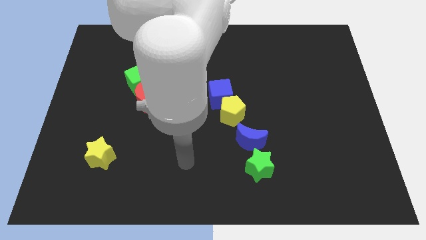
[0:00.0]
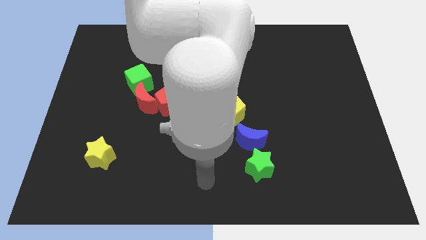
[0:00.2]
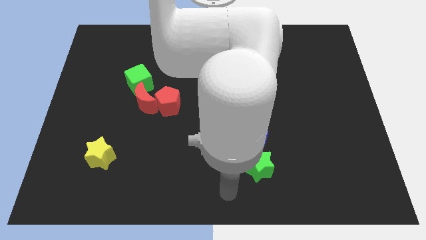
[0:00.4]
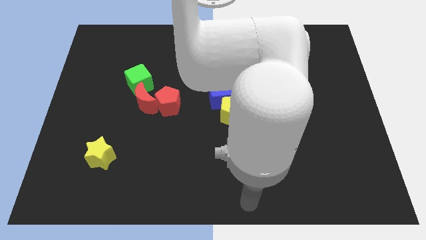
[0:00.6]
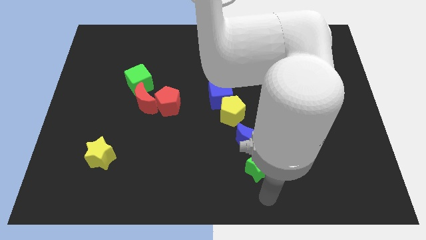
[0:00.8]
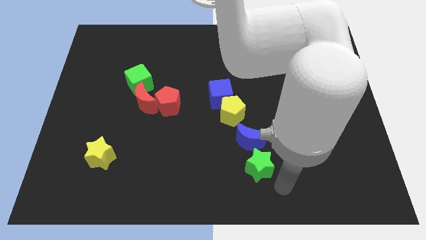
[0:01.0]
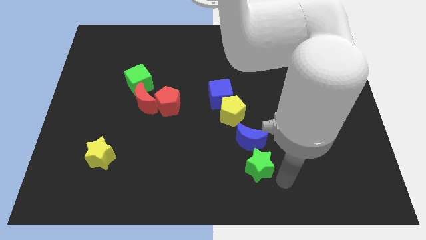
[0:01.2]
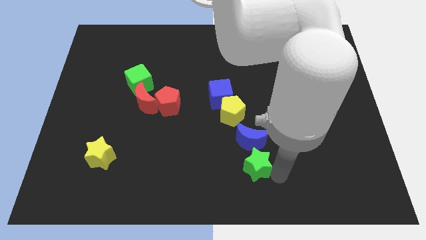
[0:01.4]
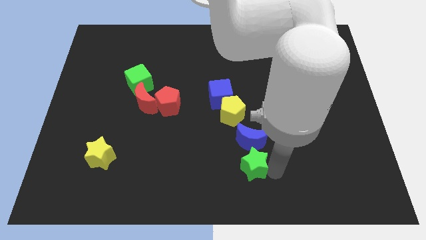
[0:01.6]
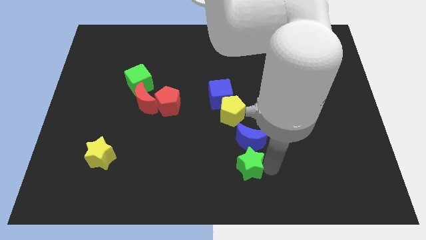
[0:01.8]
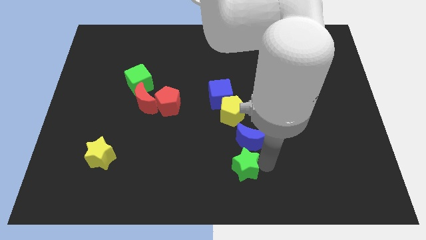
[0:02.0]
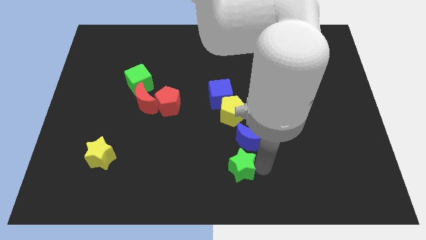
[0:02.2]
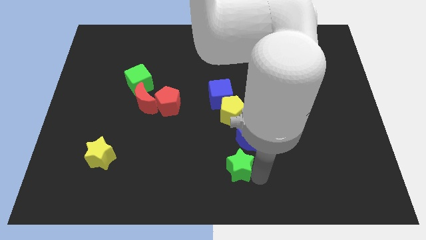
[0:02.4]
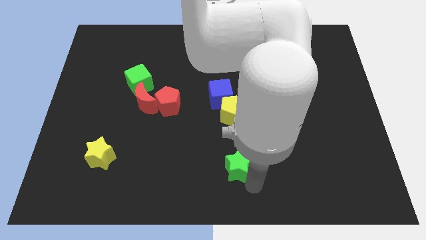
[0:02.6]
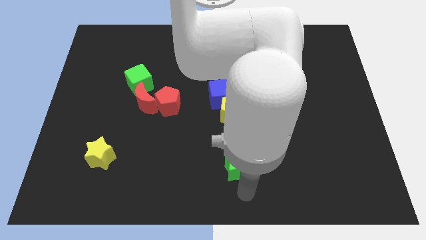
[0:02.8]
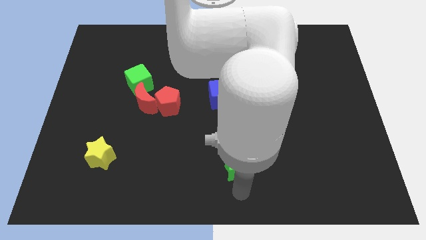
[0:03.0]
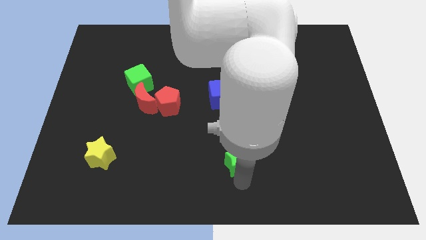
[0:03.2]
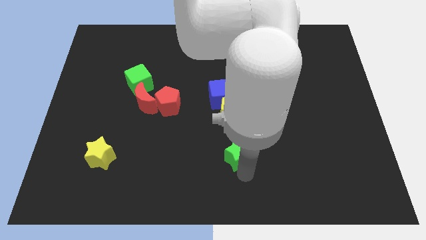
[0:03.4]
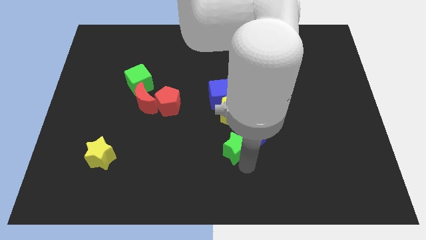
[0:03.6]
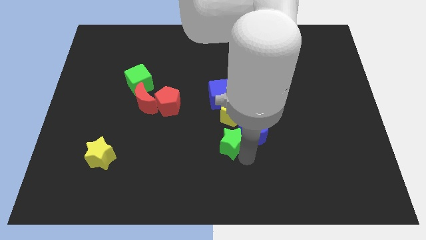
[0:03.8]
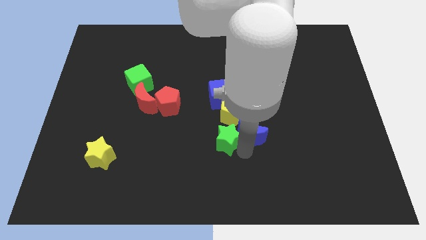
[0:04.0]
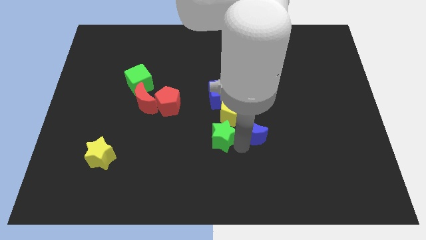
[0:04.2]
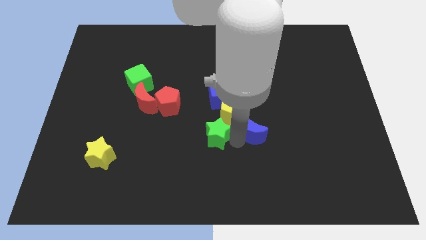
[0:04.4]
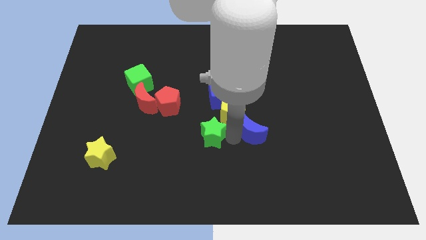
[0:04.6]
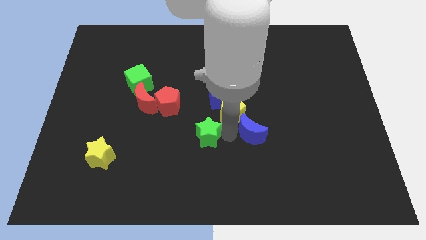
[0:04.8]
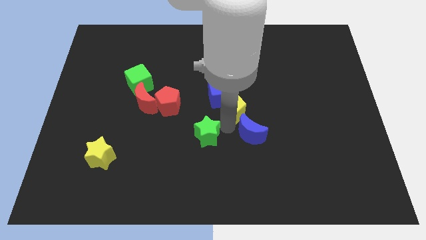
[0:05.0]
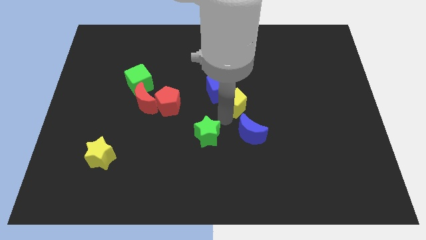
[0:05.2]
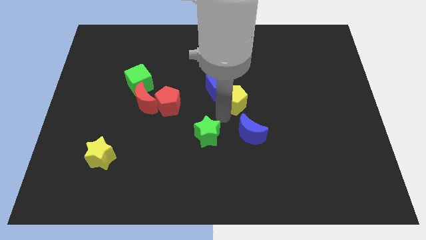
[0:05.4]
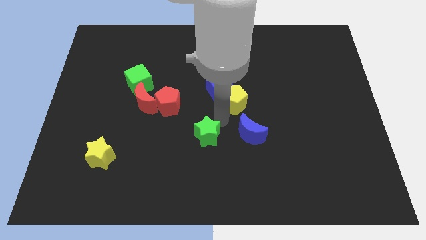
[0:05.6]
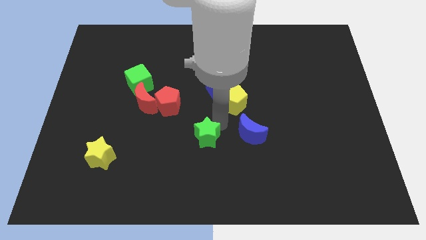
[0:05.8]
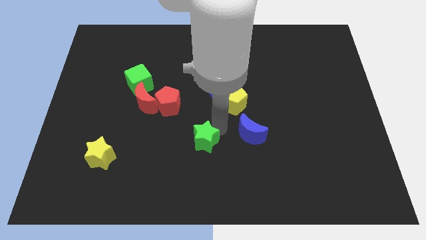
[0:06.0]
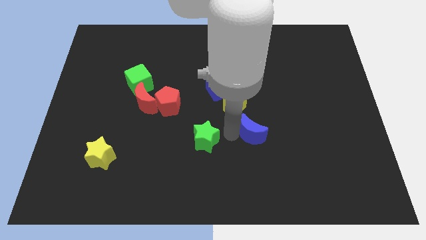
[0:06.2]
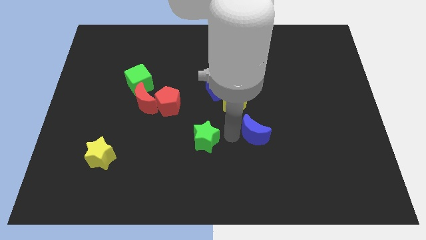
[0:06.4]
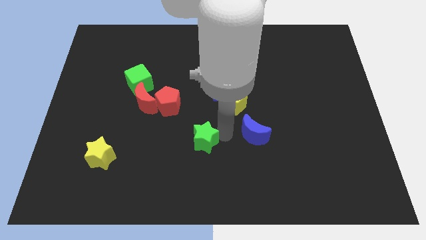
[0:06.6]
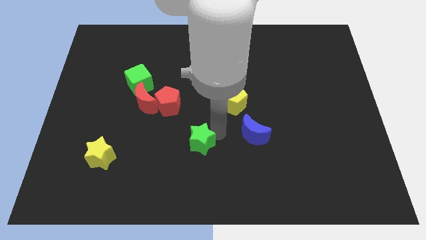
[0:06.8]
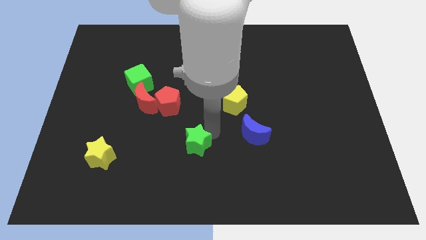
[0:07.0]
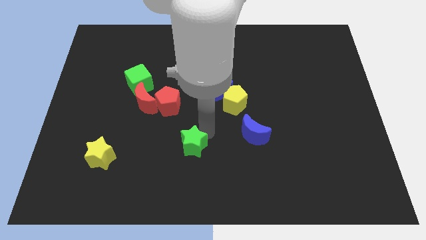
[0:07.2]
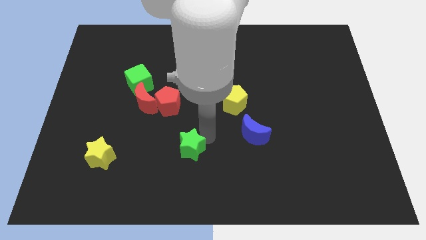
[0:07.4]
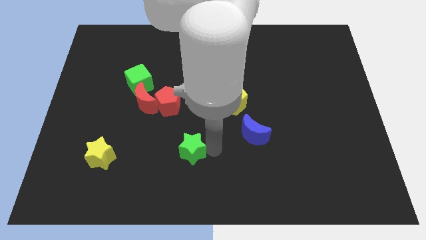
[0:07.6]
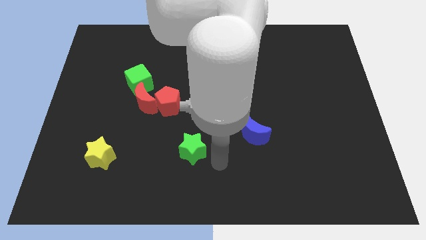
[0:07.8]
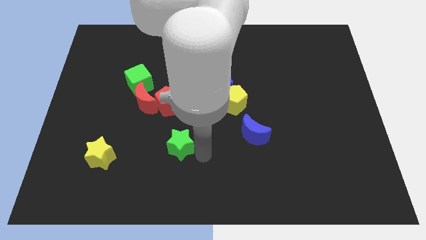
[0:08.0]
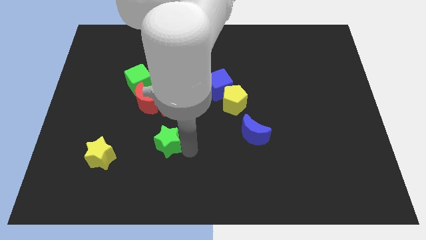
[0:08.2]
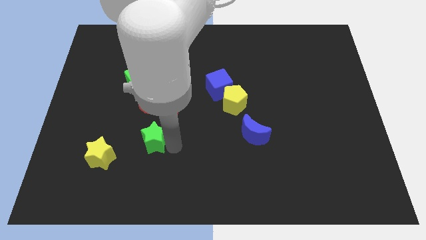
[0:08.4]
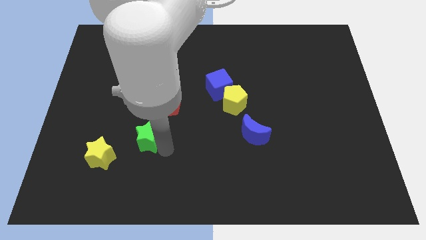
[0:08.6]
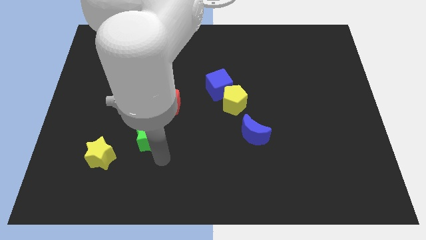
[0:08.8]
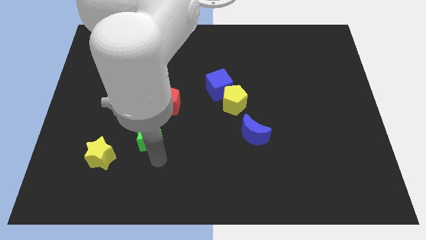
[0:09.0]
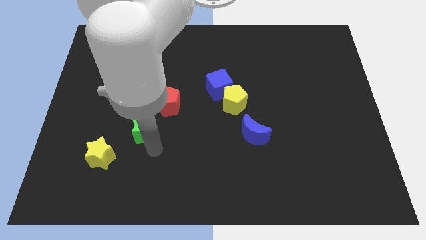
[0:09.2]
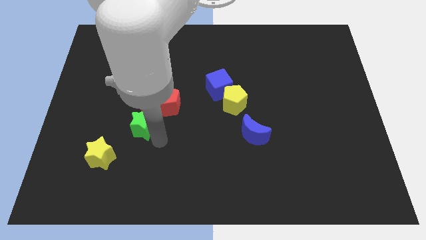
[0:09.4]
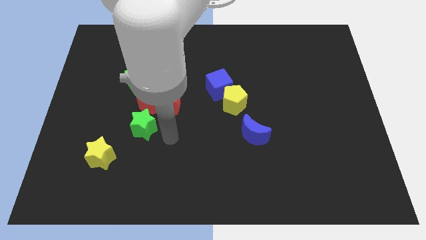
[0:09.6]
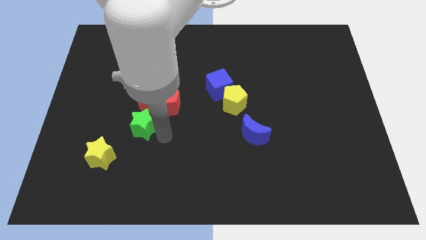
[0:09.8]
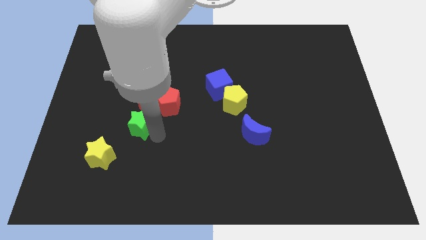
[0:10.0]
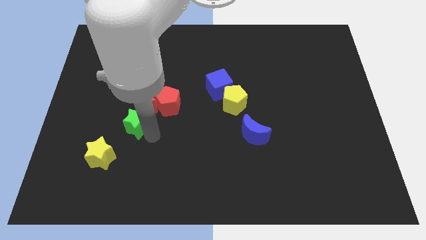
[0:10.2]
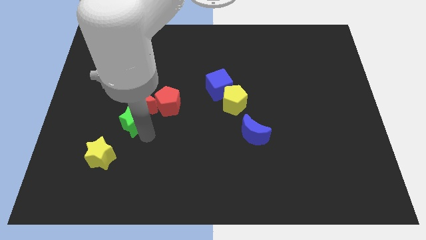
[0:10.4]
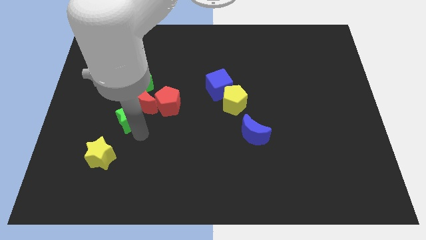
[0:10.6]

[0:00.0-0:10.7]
move the green star to the left side of the red pentagon

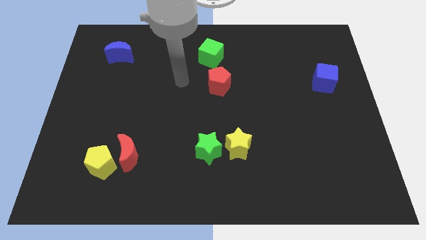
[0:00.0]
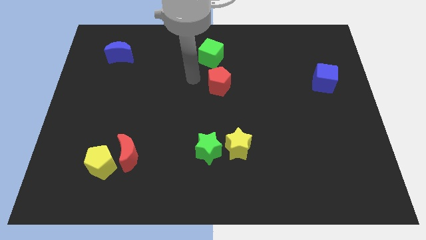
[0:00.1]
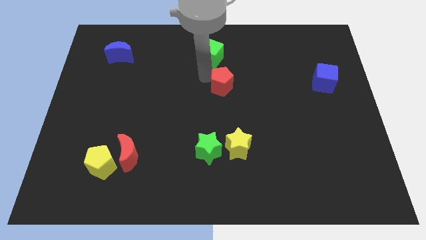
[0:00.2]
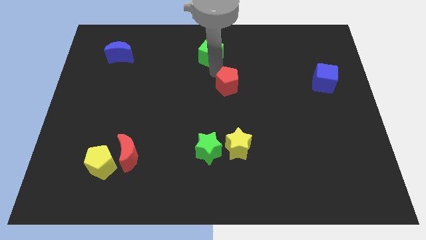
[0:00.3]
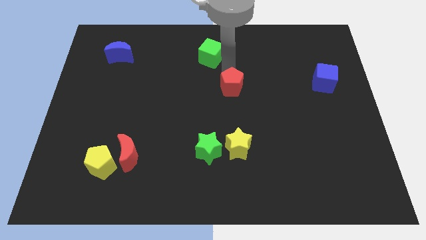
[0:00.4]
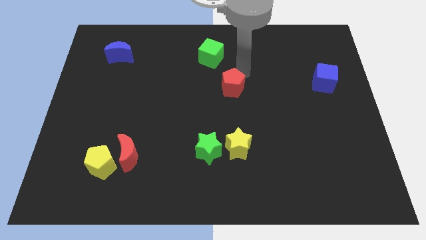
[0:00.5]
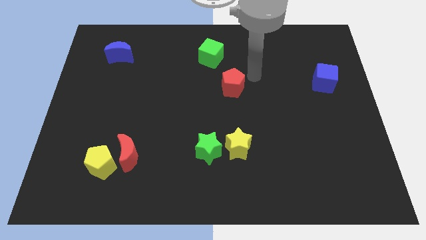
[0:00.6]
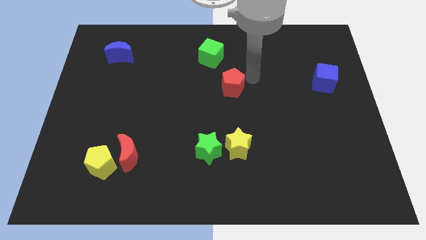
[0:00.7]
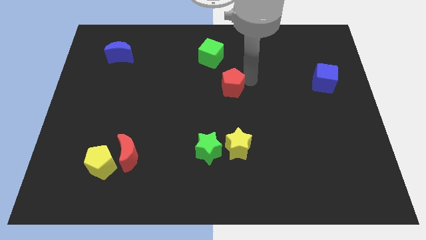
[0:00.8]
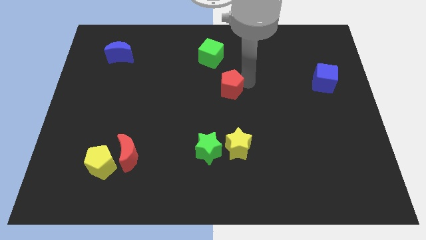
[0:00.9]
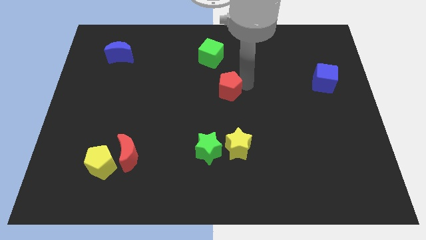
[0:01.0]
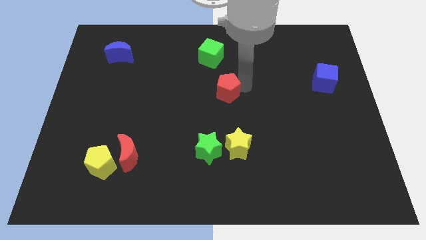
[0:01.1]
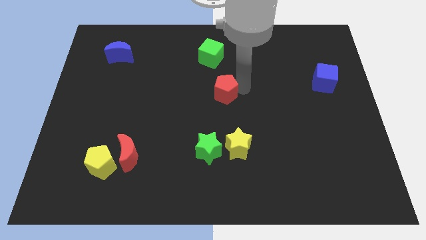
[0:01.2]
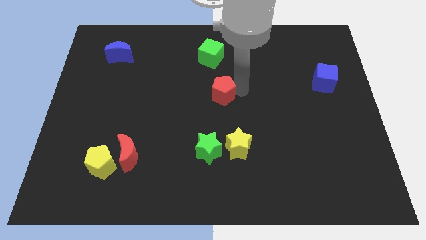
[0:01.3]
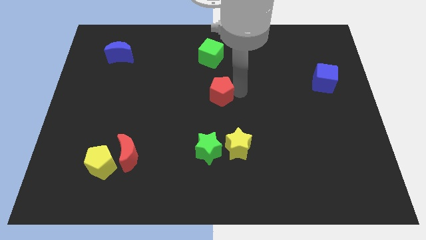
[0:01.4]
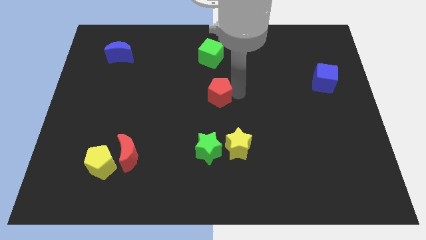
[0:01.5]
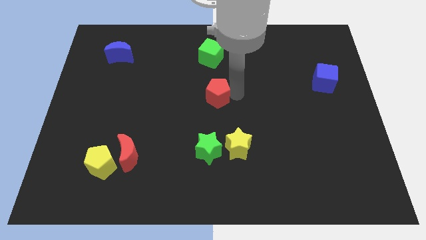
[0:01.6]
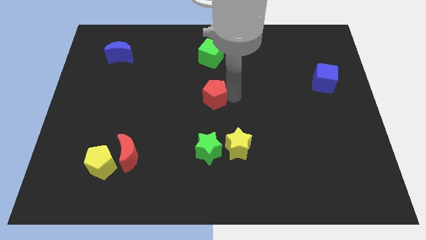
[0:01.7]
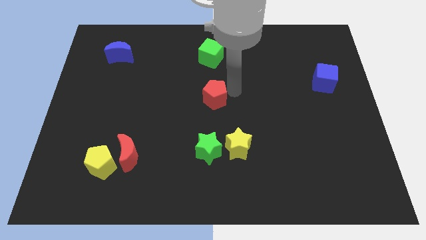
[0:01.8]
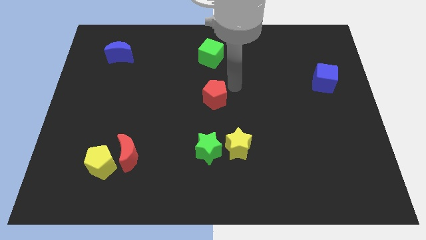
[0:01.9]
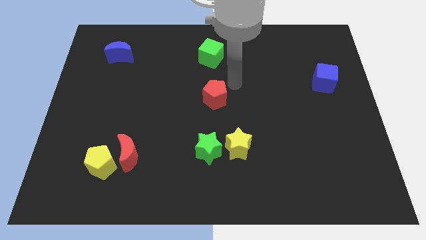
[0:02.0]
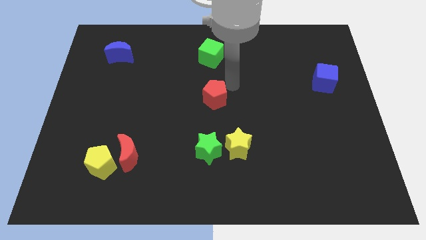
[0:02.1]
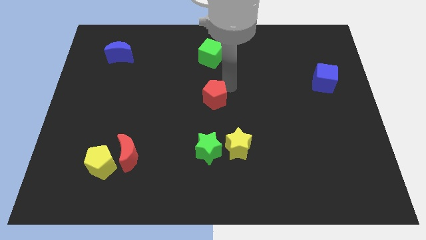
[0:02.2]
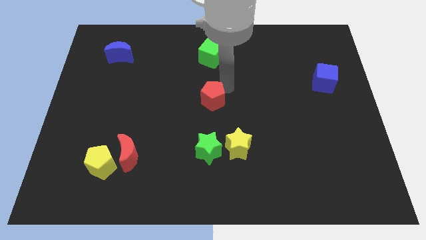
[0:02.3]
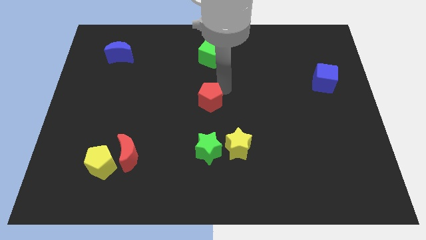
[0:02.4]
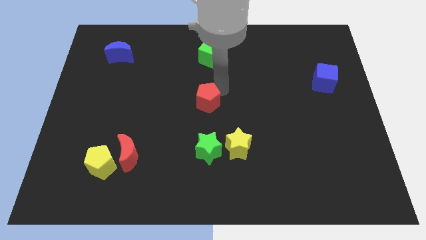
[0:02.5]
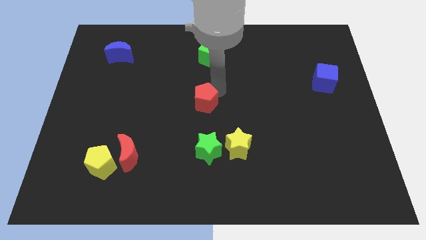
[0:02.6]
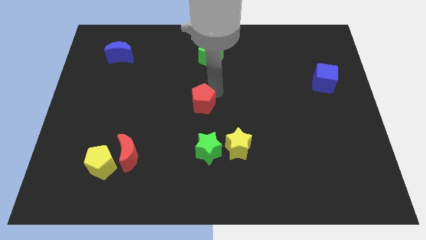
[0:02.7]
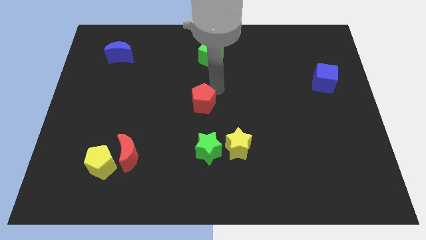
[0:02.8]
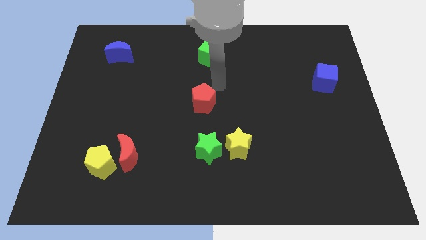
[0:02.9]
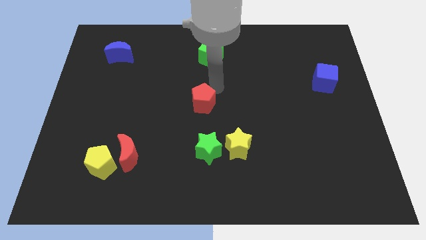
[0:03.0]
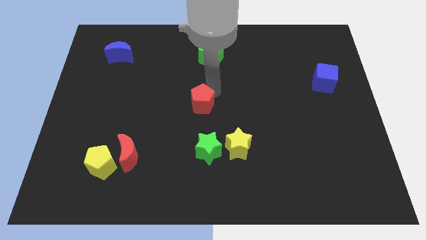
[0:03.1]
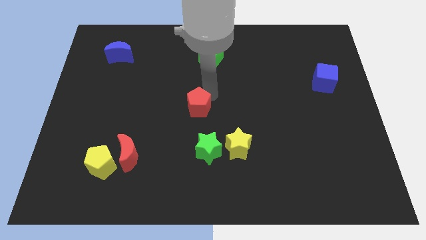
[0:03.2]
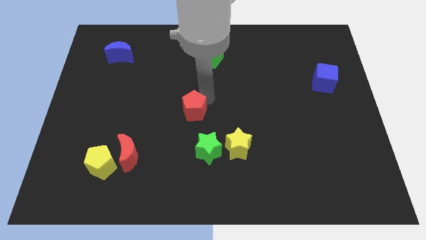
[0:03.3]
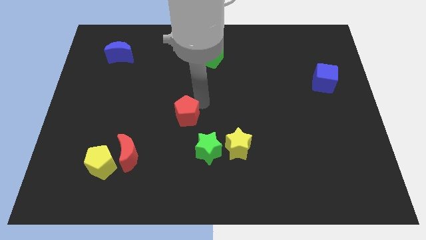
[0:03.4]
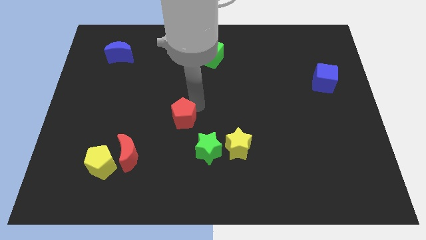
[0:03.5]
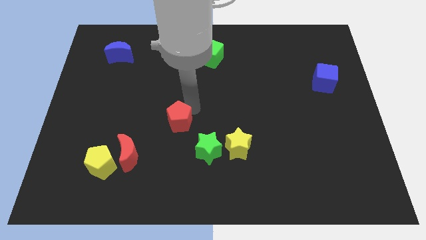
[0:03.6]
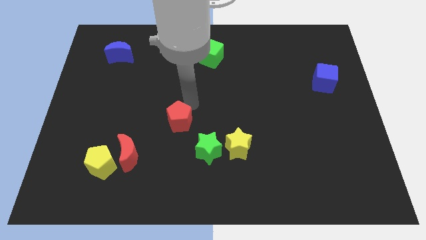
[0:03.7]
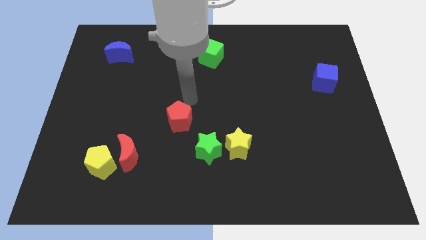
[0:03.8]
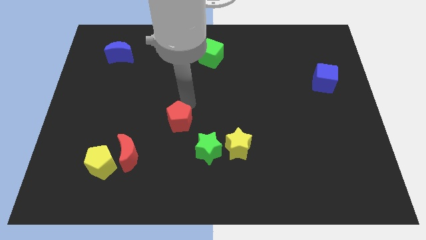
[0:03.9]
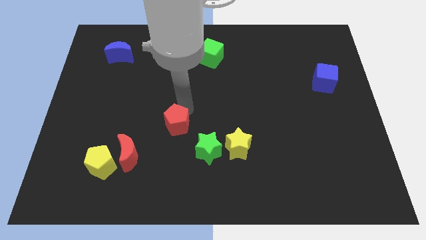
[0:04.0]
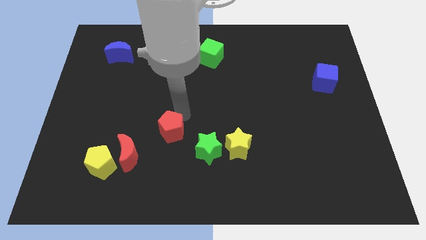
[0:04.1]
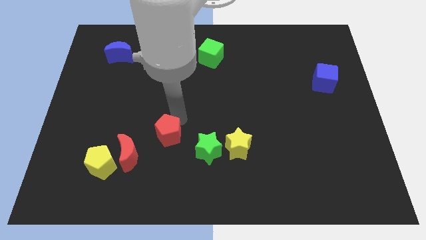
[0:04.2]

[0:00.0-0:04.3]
move the red pentagon to the left side of the green star
